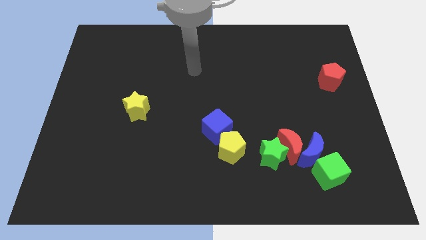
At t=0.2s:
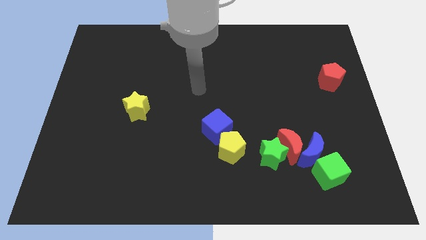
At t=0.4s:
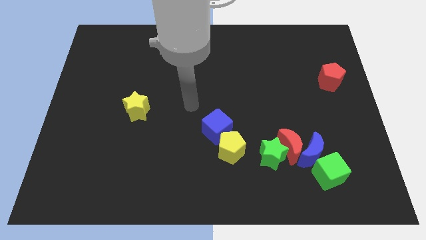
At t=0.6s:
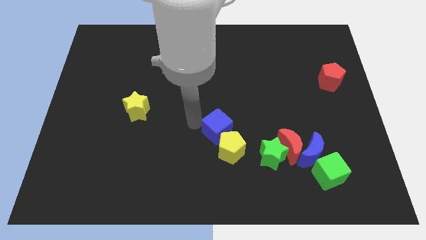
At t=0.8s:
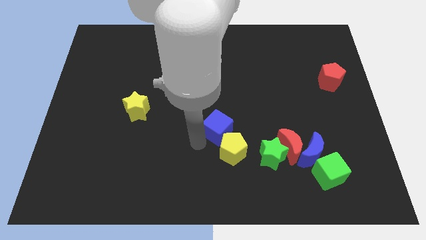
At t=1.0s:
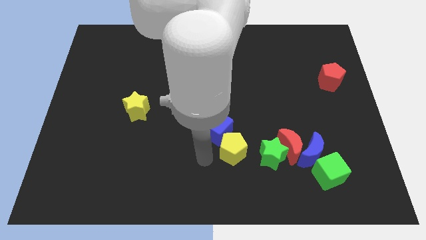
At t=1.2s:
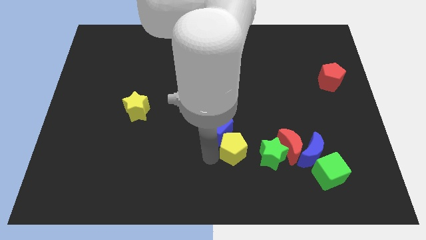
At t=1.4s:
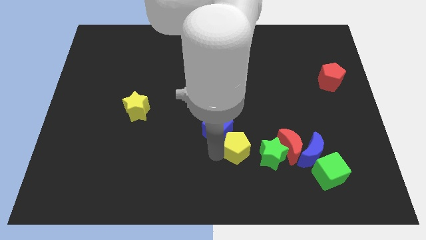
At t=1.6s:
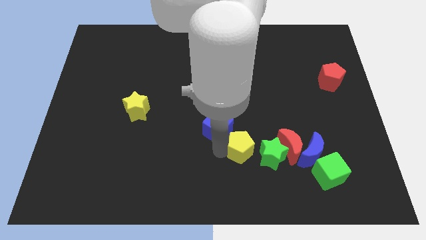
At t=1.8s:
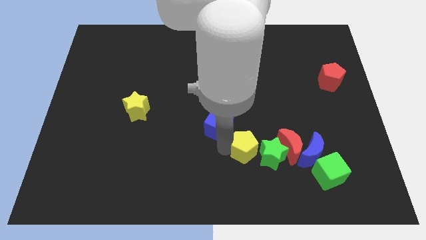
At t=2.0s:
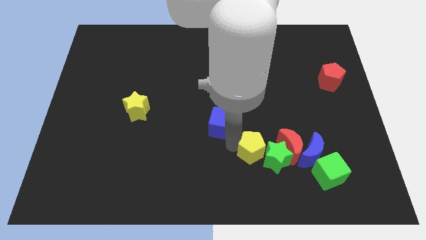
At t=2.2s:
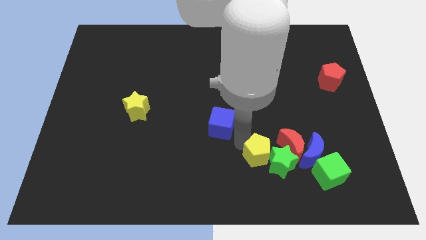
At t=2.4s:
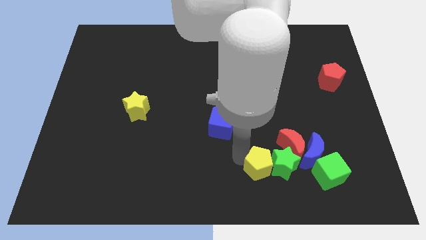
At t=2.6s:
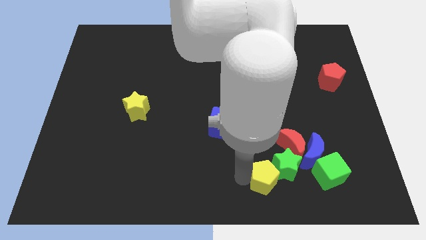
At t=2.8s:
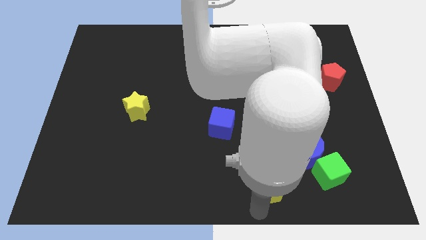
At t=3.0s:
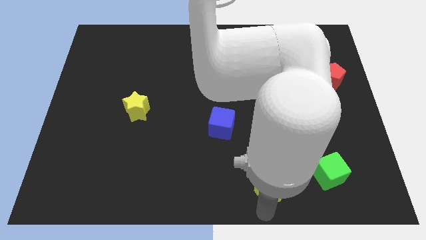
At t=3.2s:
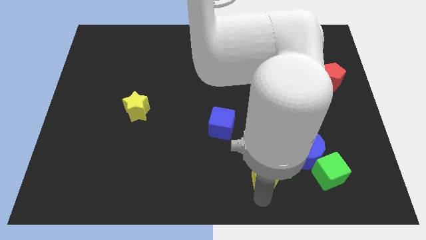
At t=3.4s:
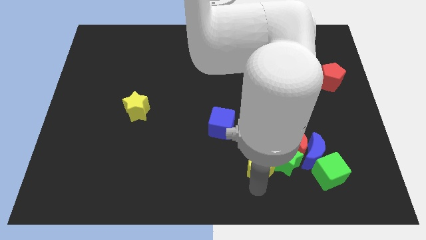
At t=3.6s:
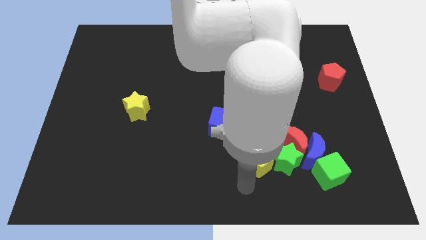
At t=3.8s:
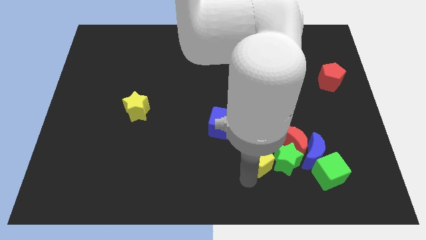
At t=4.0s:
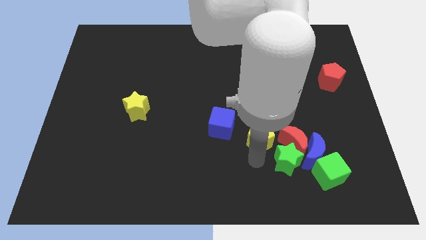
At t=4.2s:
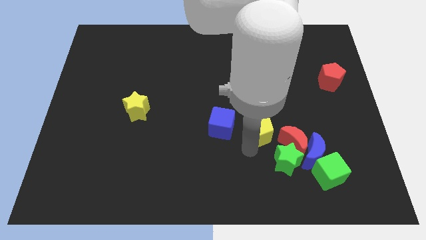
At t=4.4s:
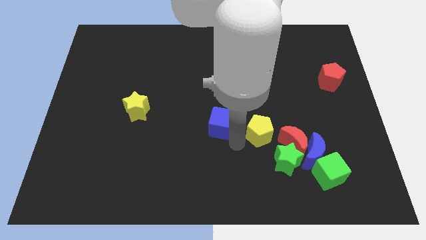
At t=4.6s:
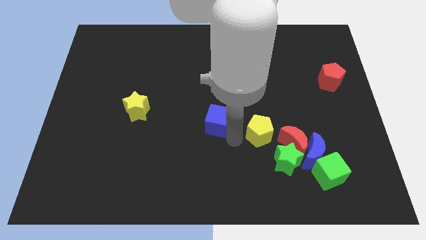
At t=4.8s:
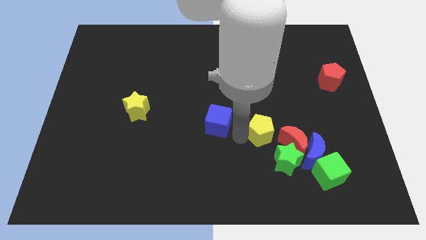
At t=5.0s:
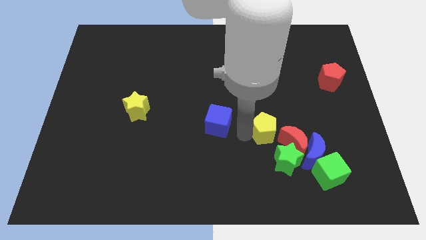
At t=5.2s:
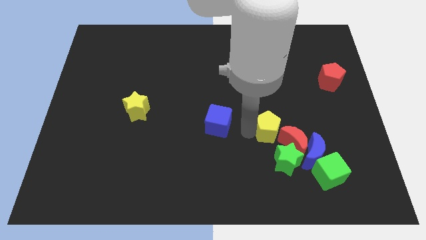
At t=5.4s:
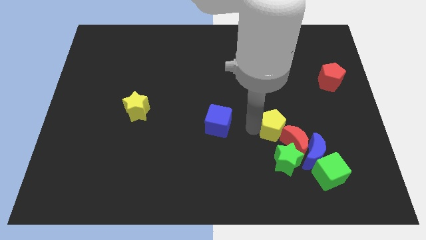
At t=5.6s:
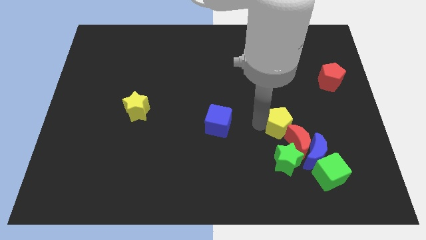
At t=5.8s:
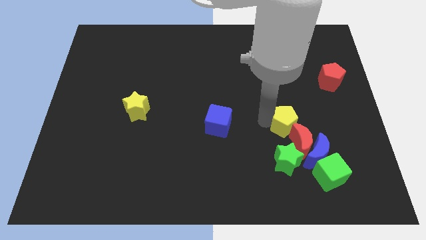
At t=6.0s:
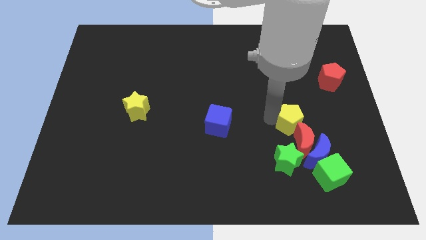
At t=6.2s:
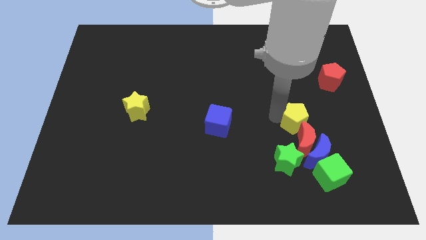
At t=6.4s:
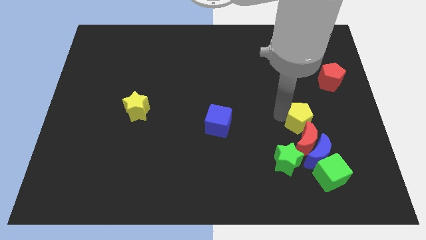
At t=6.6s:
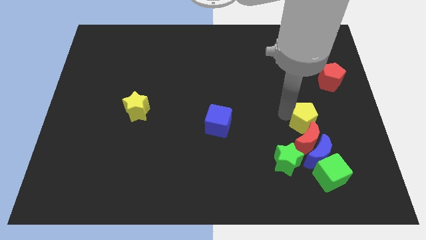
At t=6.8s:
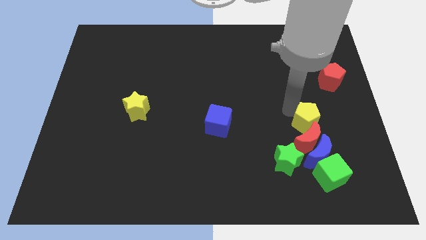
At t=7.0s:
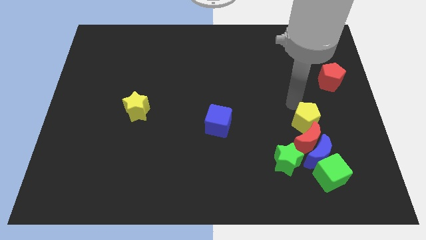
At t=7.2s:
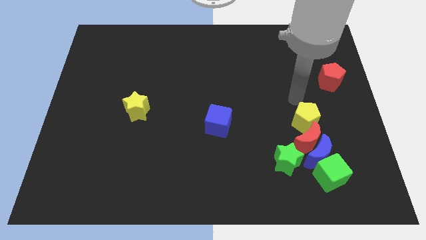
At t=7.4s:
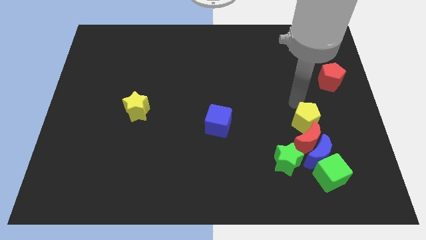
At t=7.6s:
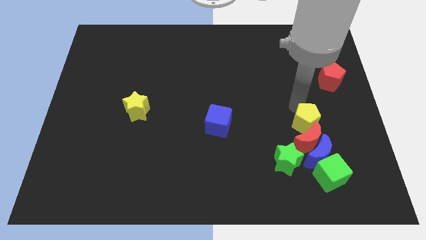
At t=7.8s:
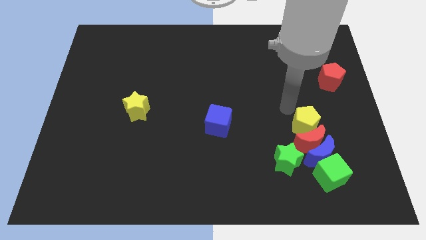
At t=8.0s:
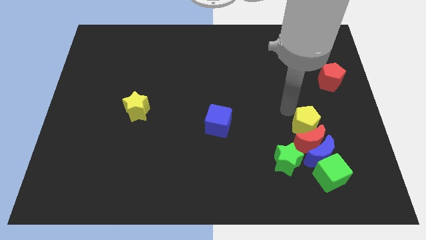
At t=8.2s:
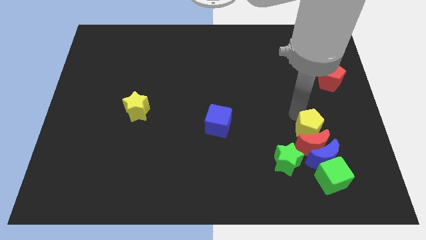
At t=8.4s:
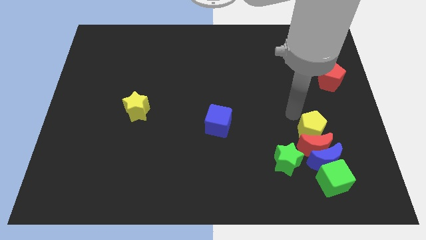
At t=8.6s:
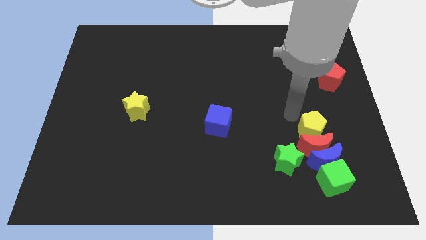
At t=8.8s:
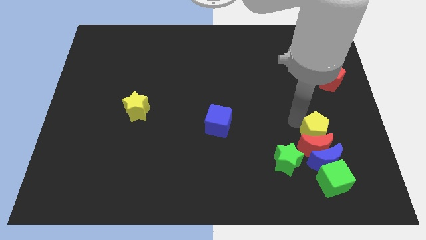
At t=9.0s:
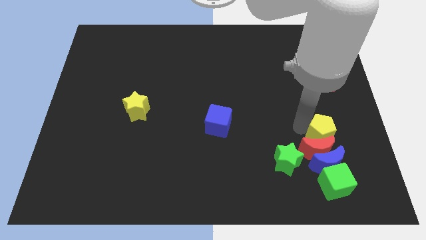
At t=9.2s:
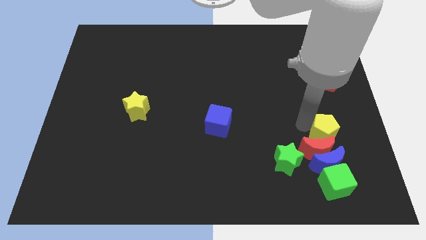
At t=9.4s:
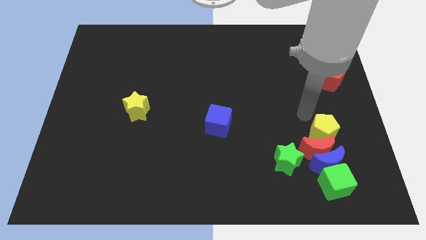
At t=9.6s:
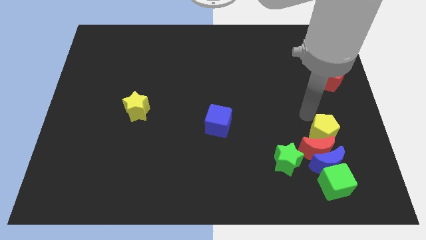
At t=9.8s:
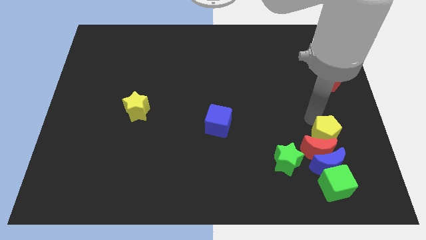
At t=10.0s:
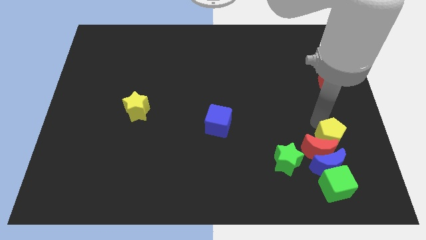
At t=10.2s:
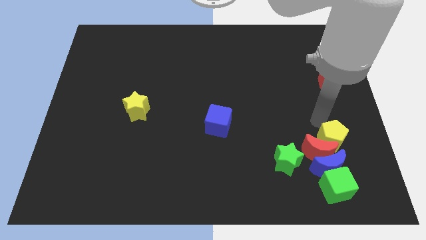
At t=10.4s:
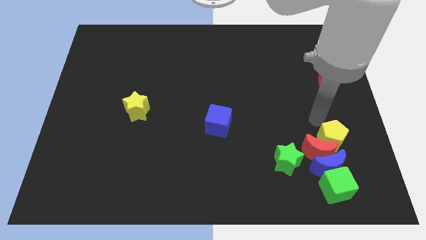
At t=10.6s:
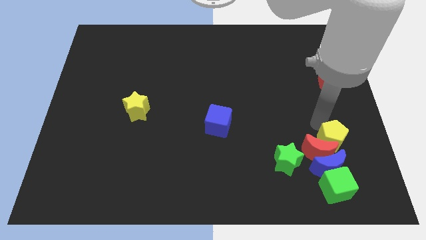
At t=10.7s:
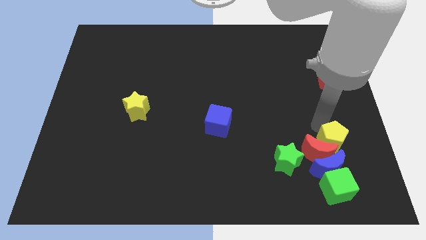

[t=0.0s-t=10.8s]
push the yellow pentagon right of the green star
